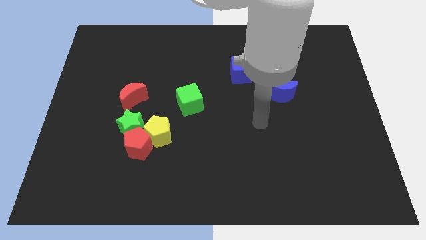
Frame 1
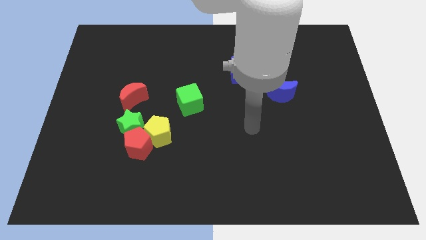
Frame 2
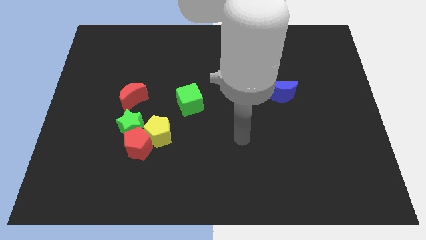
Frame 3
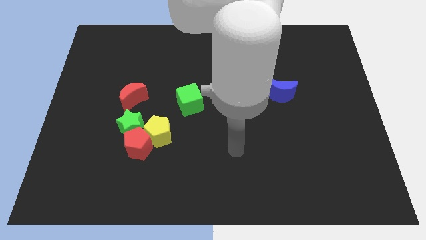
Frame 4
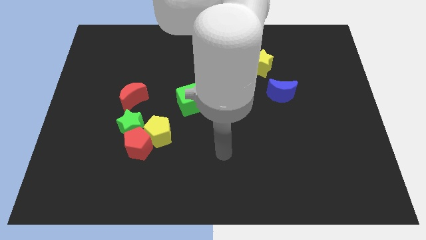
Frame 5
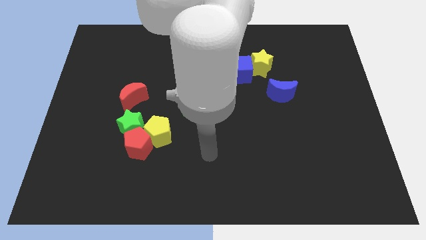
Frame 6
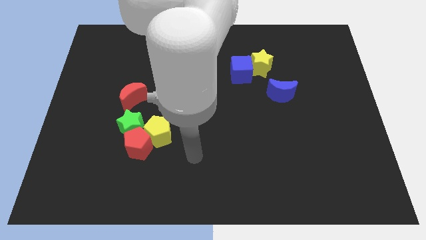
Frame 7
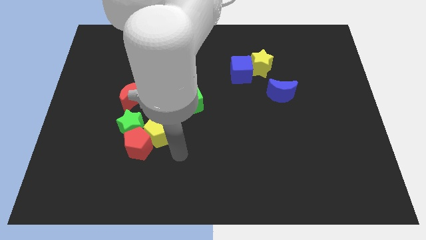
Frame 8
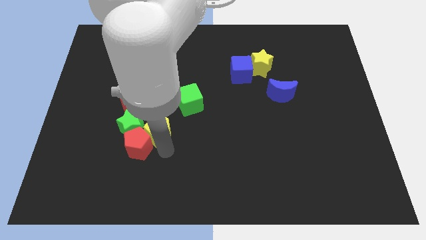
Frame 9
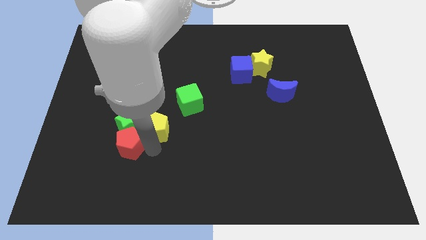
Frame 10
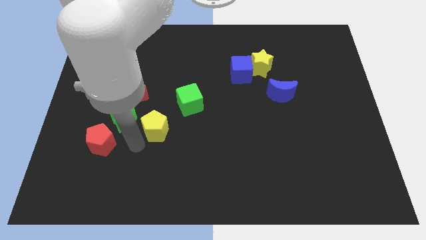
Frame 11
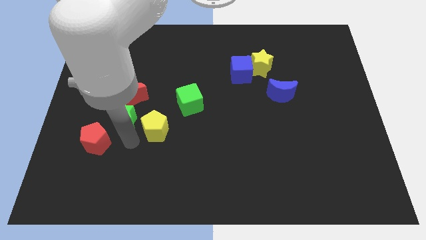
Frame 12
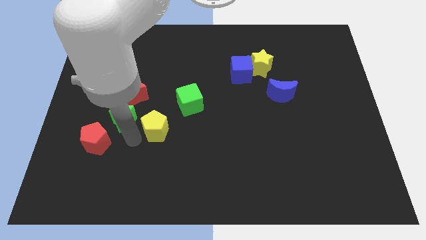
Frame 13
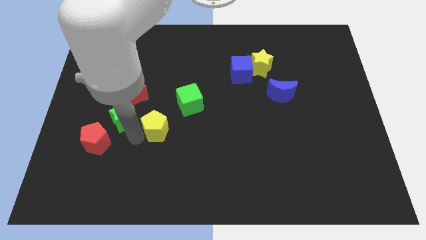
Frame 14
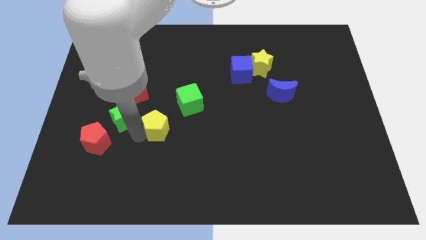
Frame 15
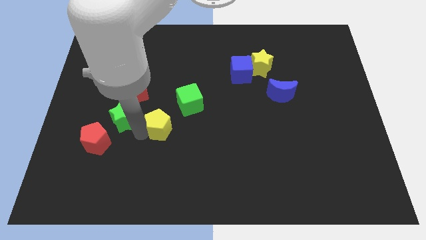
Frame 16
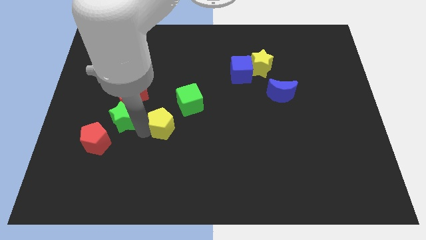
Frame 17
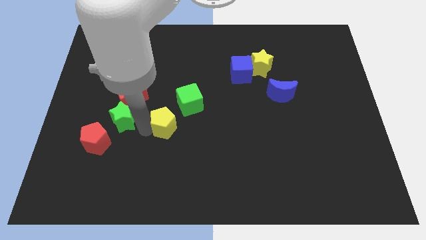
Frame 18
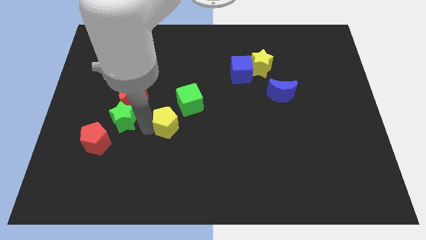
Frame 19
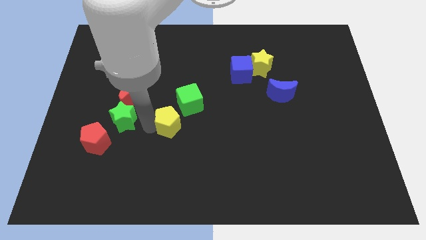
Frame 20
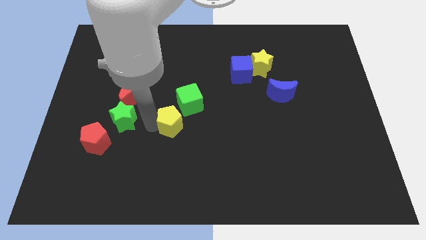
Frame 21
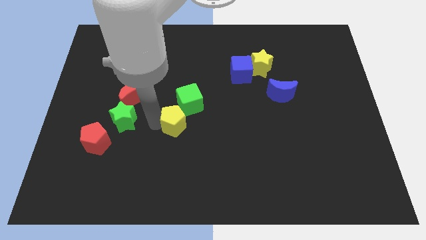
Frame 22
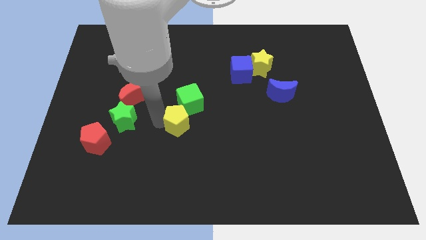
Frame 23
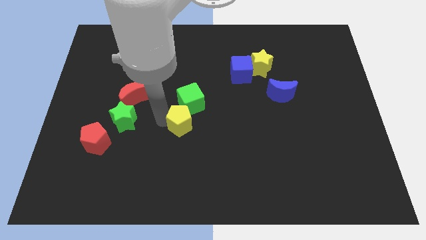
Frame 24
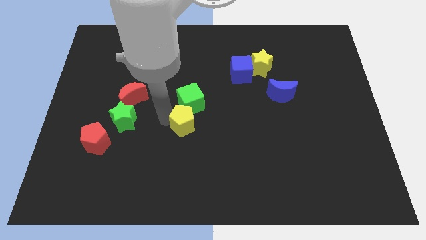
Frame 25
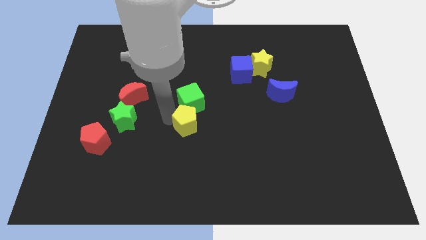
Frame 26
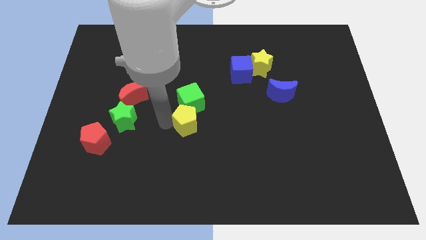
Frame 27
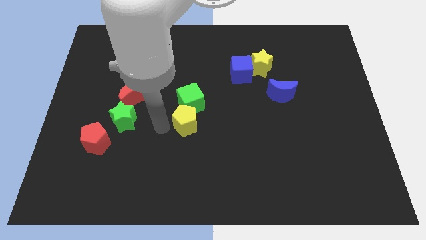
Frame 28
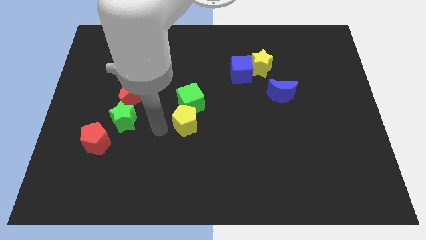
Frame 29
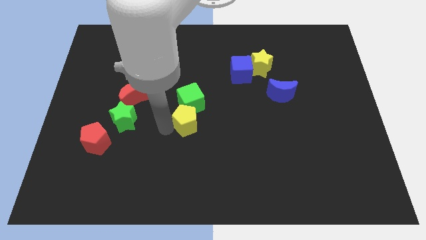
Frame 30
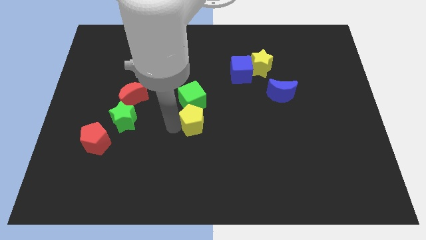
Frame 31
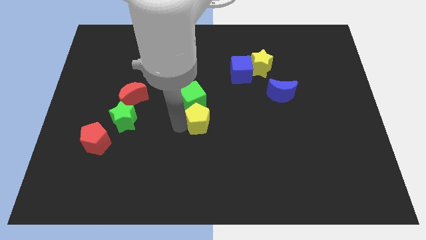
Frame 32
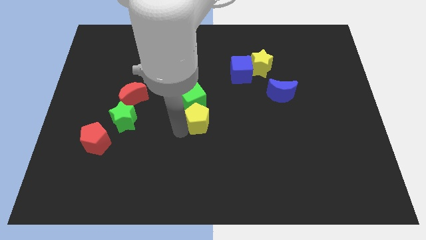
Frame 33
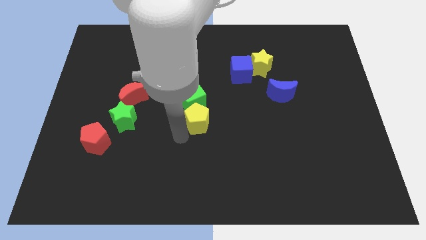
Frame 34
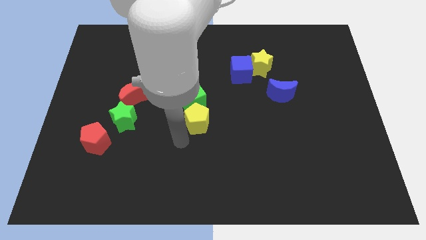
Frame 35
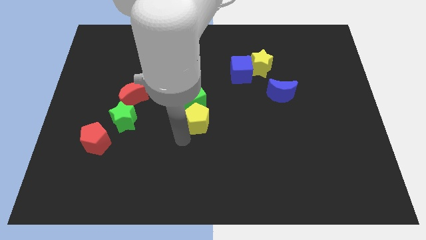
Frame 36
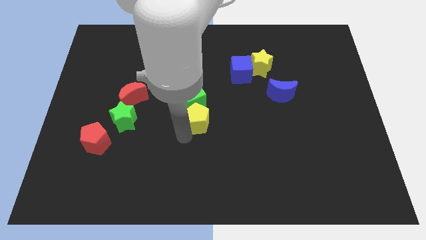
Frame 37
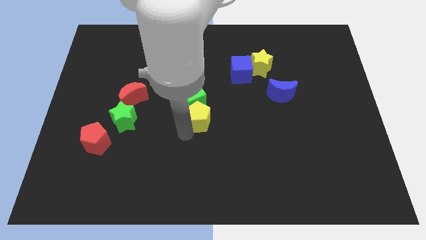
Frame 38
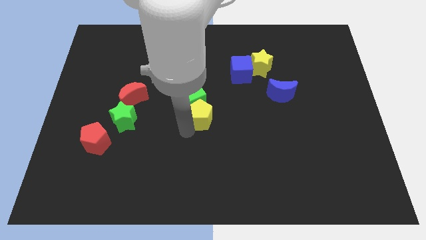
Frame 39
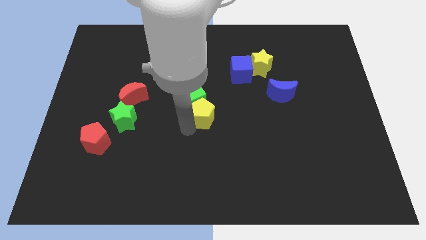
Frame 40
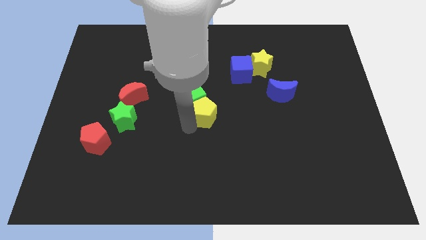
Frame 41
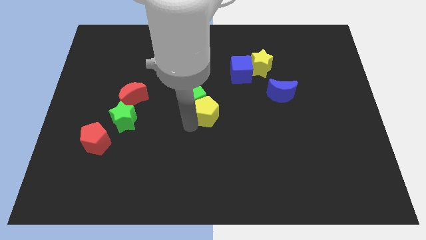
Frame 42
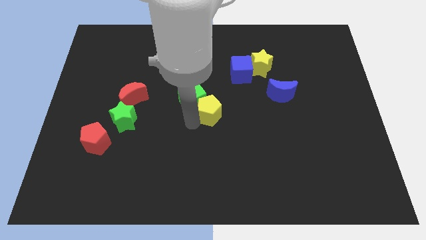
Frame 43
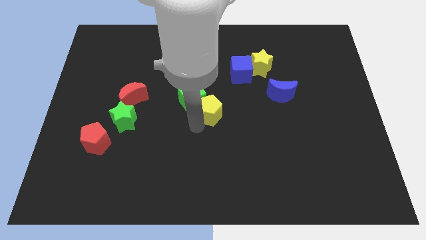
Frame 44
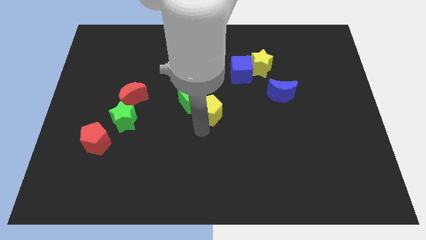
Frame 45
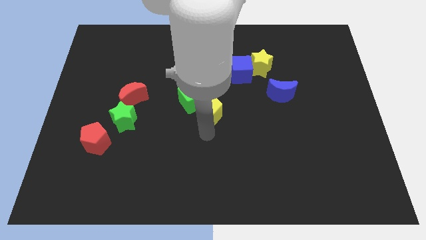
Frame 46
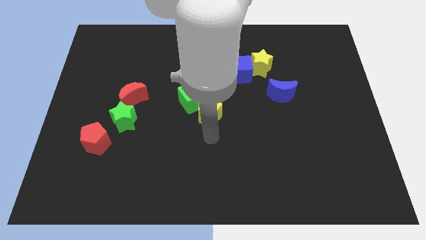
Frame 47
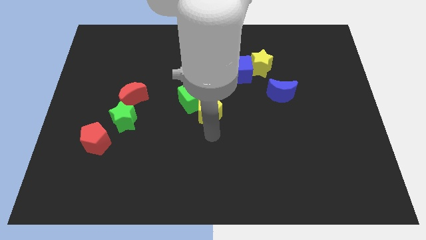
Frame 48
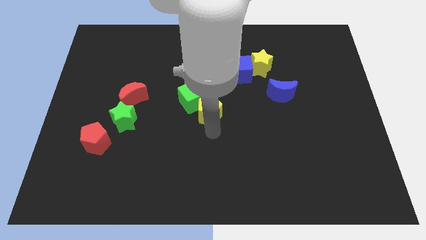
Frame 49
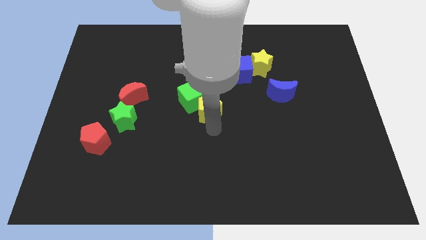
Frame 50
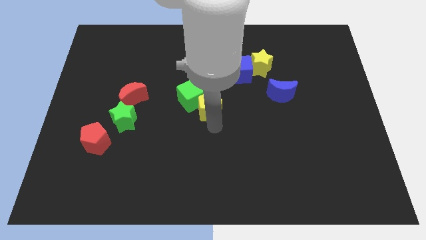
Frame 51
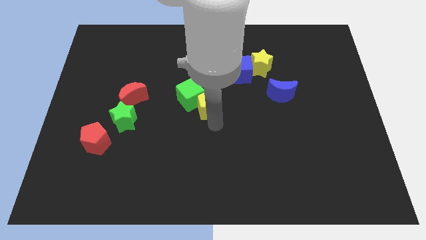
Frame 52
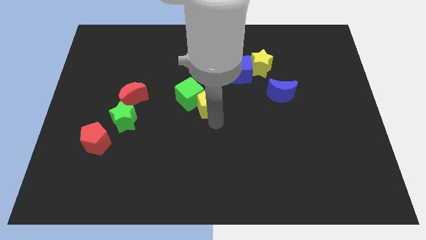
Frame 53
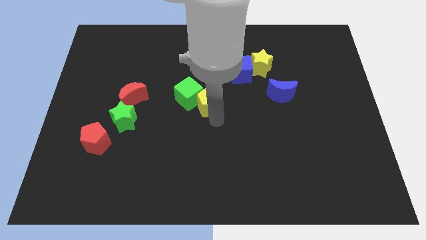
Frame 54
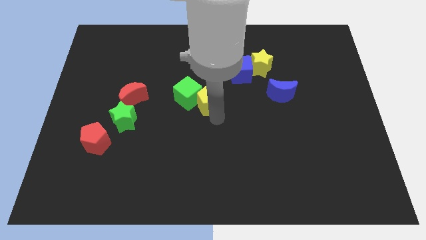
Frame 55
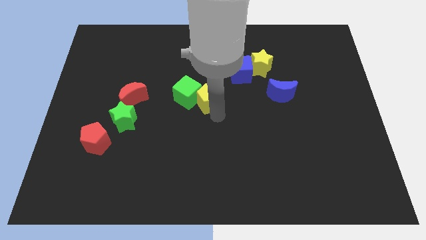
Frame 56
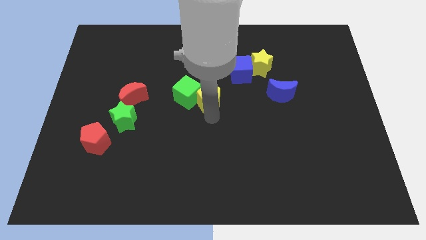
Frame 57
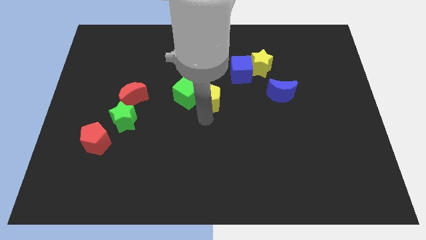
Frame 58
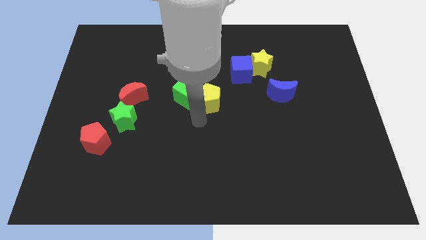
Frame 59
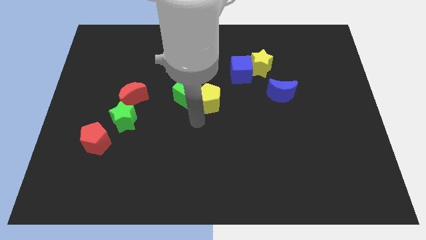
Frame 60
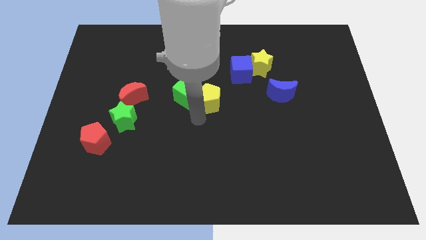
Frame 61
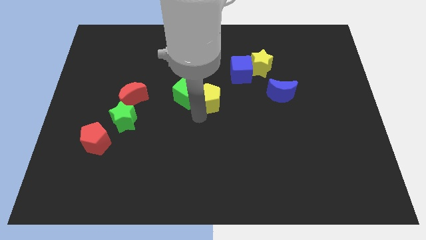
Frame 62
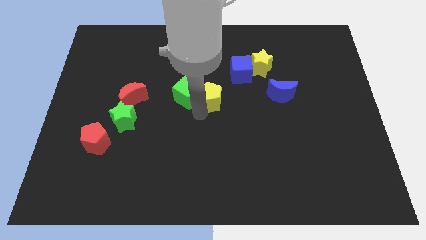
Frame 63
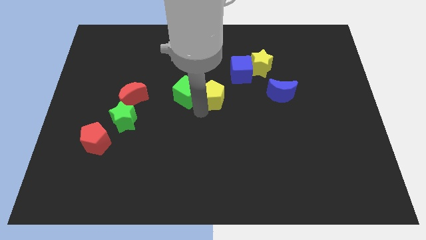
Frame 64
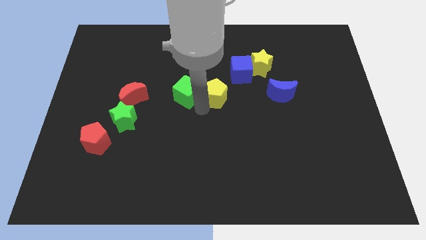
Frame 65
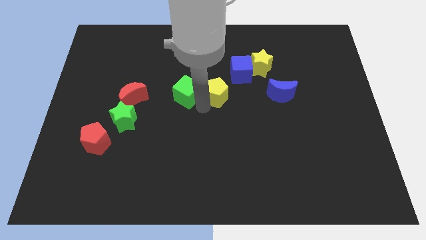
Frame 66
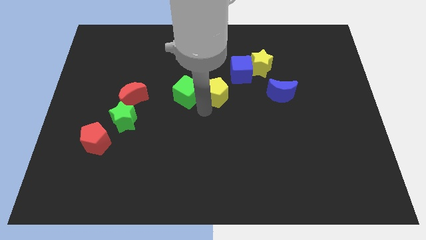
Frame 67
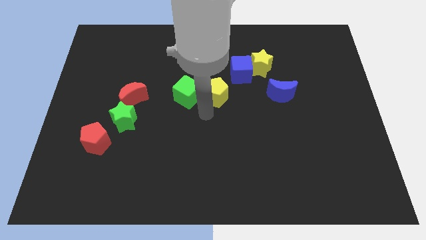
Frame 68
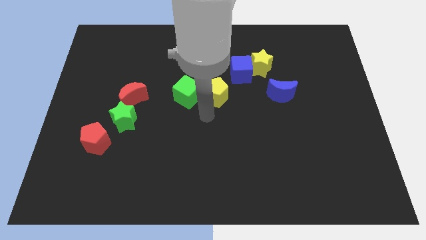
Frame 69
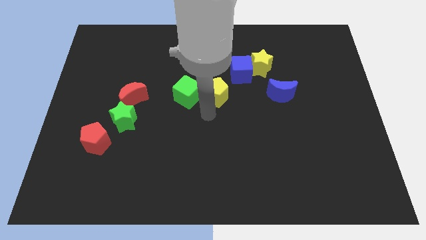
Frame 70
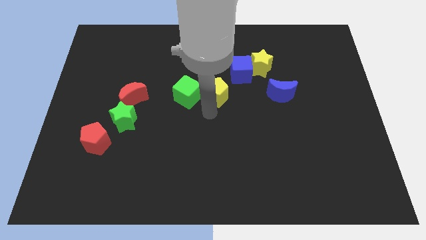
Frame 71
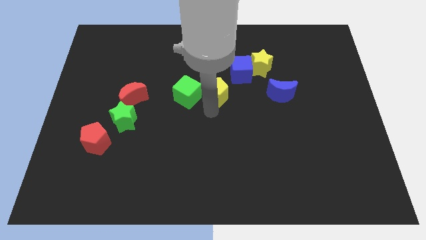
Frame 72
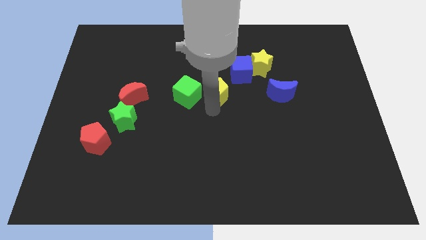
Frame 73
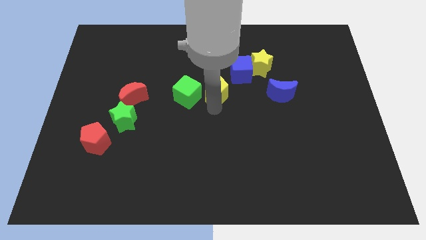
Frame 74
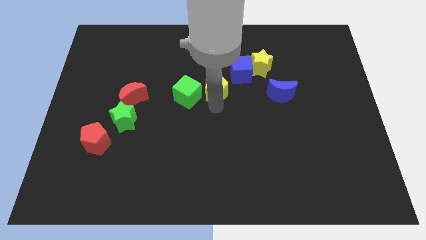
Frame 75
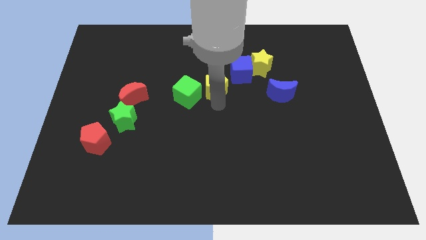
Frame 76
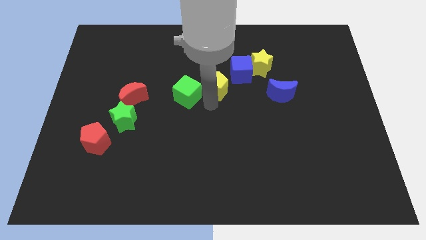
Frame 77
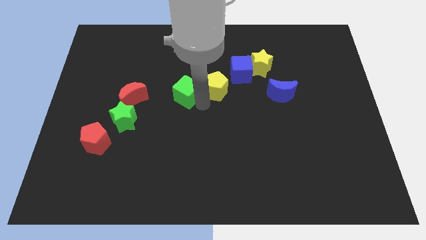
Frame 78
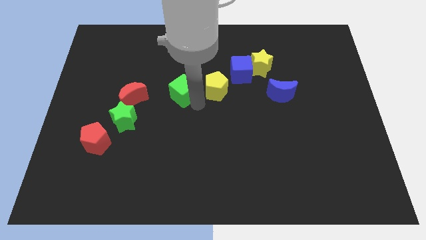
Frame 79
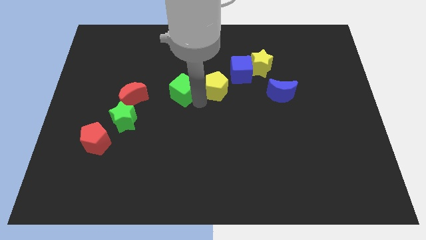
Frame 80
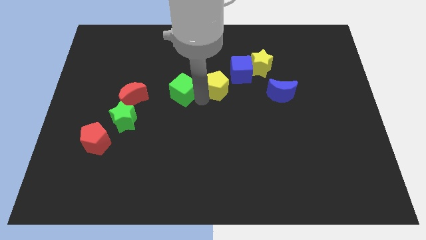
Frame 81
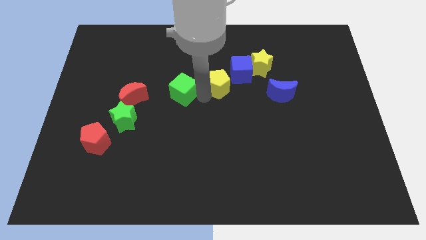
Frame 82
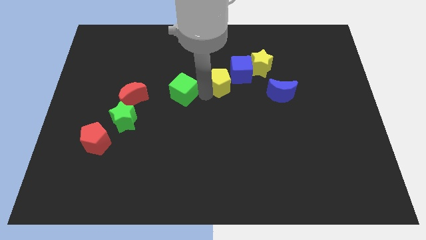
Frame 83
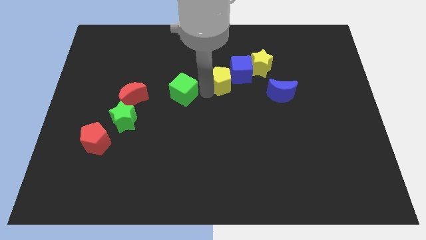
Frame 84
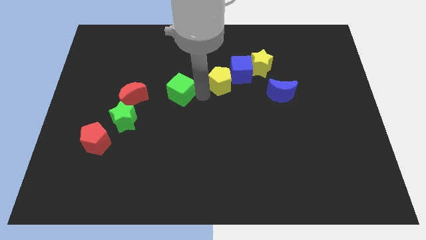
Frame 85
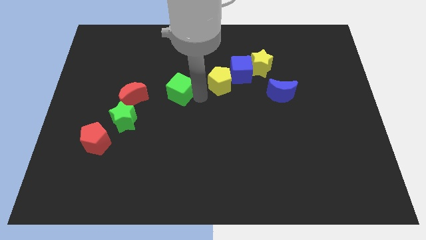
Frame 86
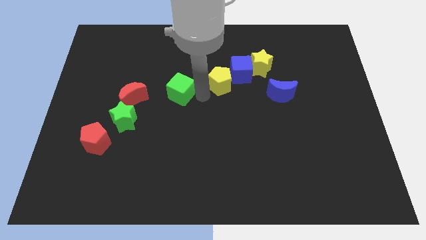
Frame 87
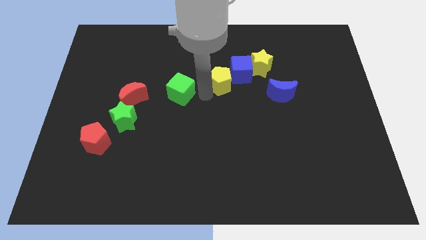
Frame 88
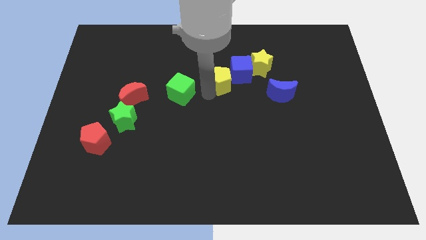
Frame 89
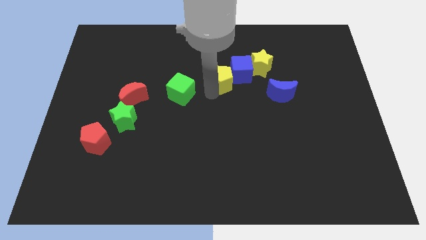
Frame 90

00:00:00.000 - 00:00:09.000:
put the yellow pentagon next to the blue cube
